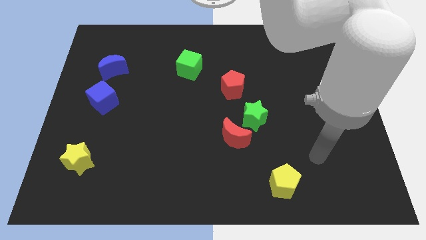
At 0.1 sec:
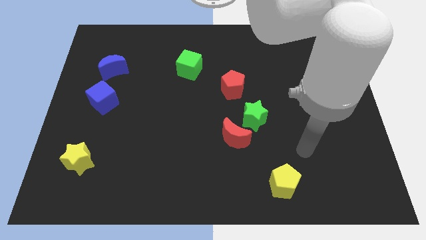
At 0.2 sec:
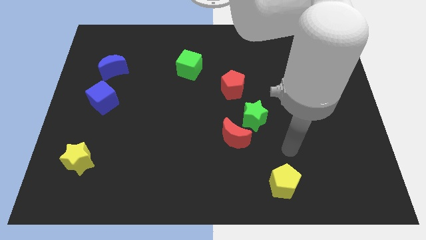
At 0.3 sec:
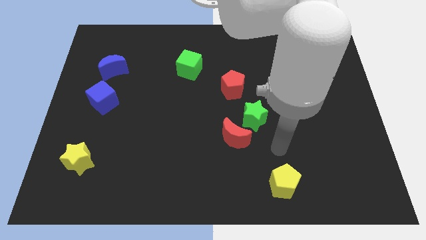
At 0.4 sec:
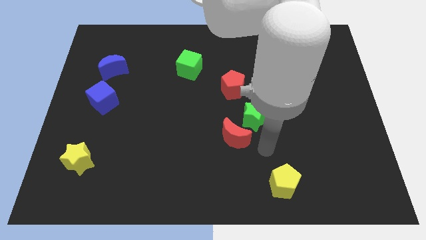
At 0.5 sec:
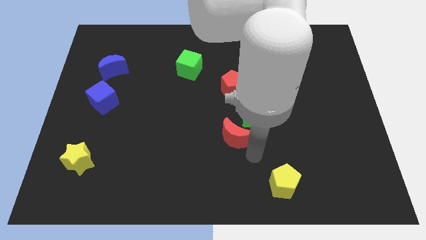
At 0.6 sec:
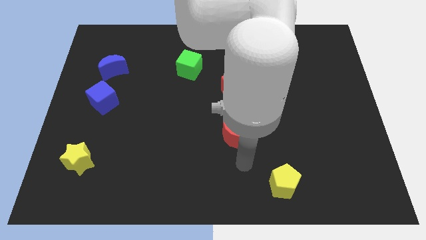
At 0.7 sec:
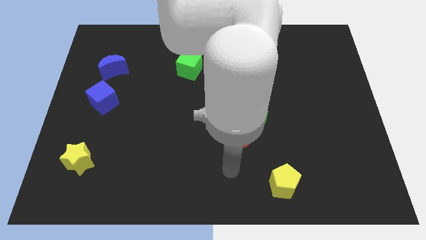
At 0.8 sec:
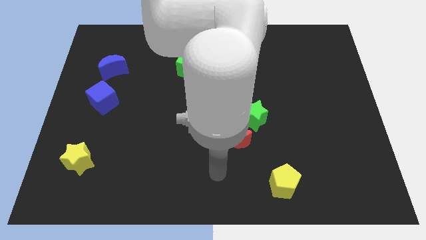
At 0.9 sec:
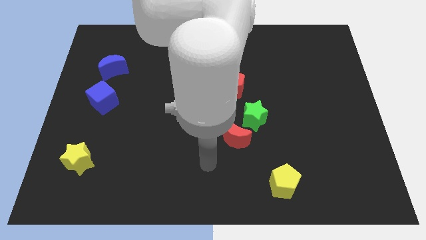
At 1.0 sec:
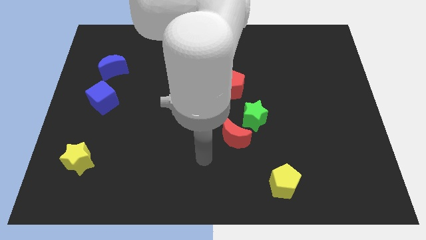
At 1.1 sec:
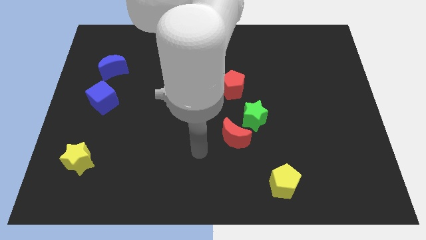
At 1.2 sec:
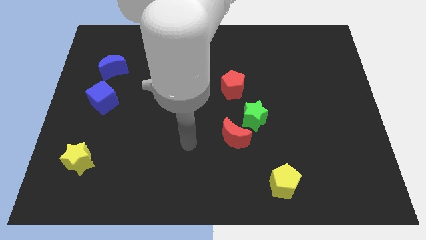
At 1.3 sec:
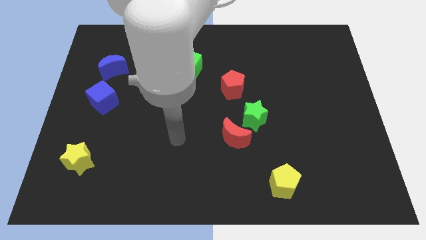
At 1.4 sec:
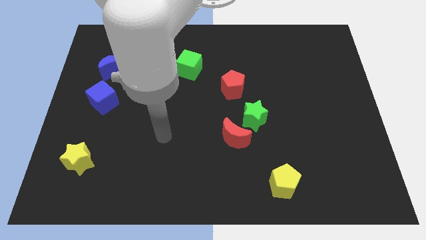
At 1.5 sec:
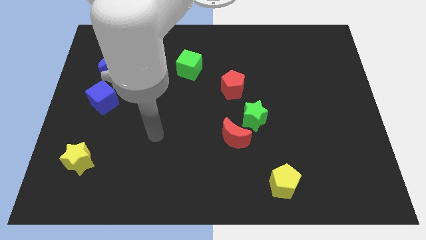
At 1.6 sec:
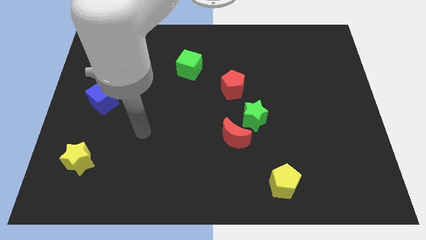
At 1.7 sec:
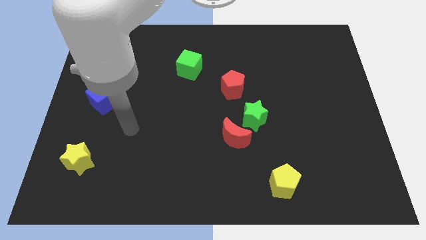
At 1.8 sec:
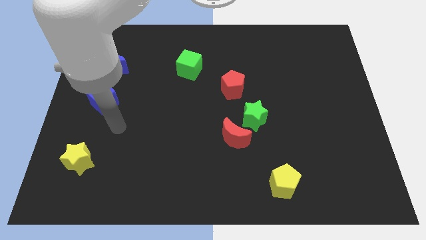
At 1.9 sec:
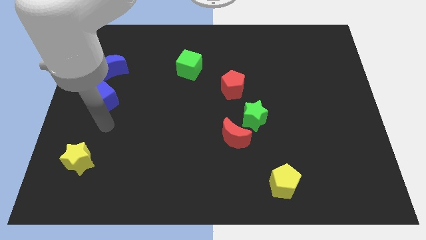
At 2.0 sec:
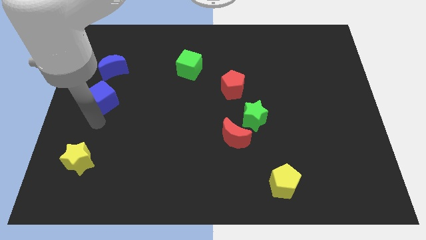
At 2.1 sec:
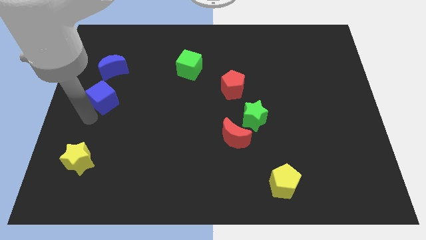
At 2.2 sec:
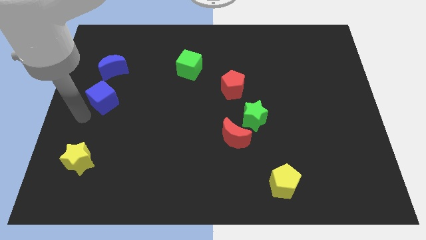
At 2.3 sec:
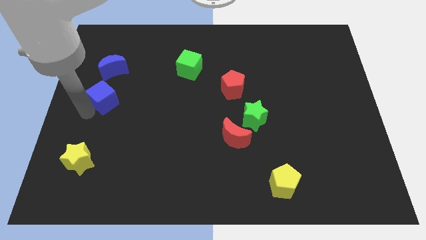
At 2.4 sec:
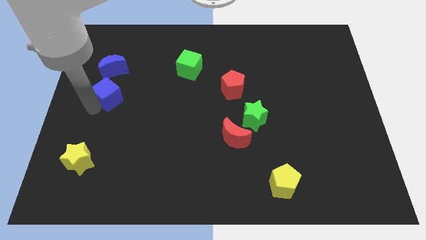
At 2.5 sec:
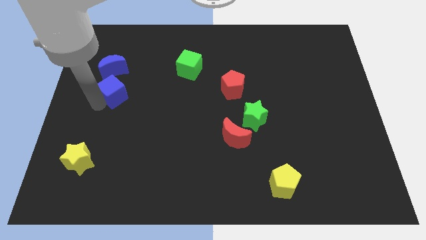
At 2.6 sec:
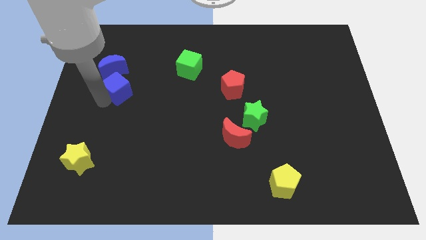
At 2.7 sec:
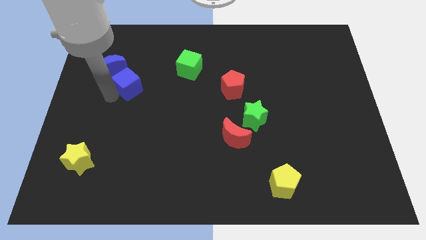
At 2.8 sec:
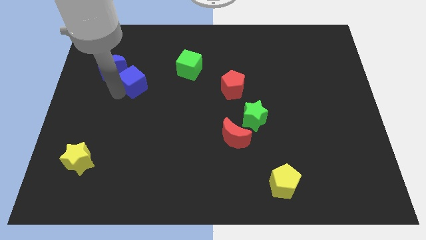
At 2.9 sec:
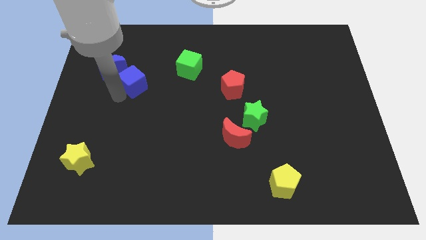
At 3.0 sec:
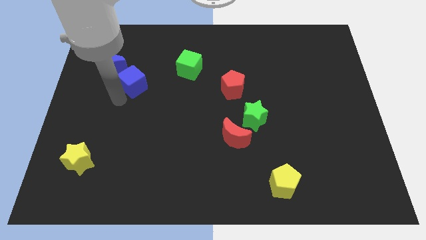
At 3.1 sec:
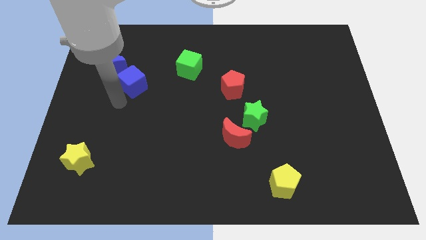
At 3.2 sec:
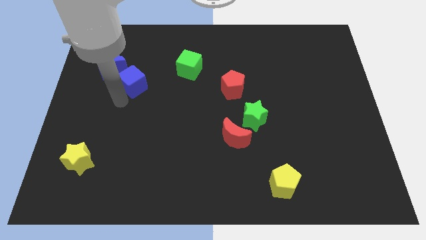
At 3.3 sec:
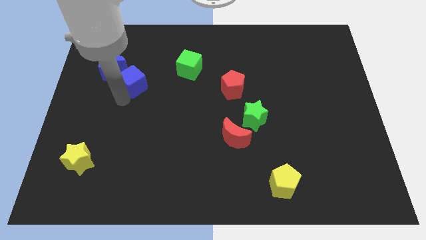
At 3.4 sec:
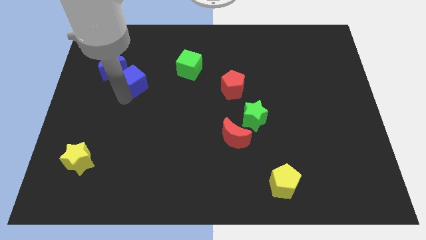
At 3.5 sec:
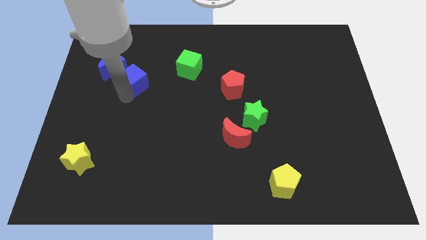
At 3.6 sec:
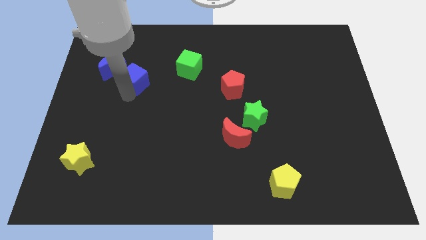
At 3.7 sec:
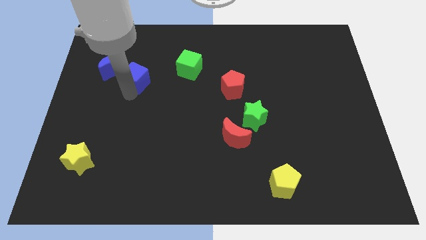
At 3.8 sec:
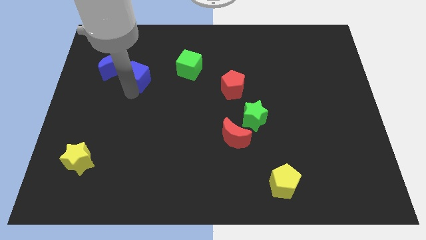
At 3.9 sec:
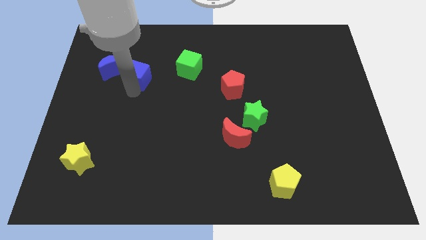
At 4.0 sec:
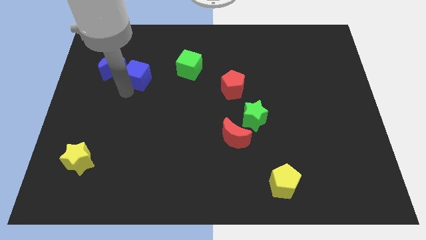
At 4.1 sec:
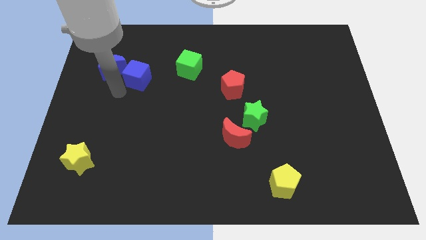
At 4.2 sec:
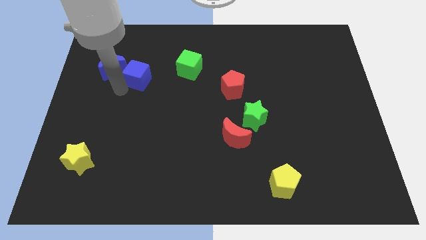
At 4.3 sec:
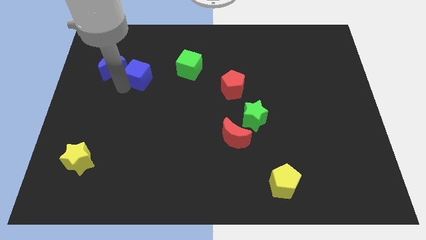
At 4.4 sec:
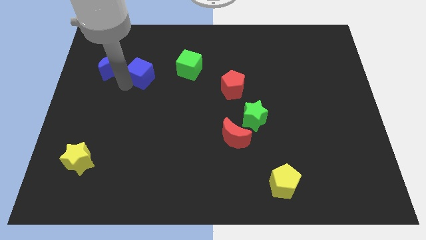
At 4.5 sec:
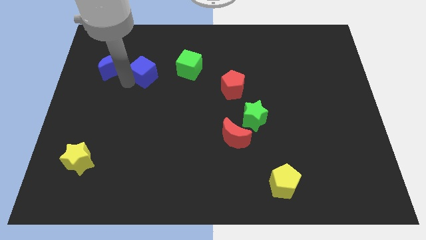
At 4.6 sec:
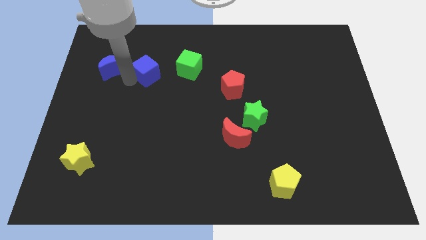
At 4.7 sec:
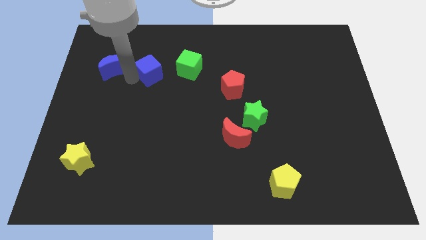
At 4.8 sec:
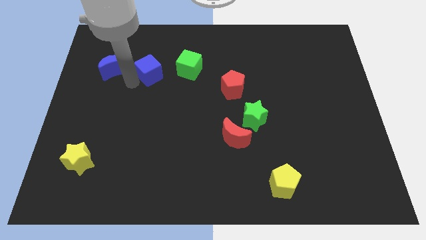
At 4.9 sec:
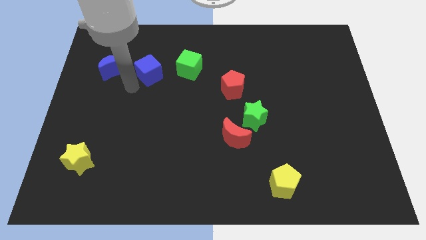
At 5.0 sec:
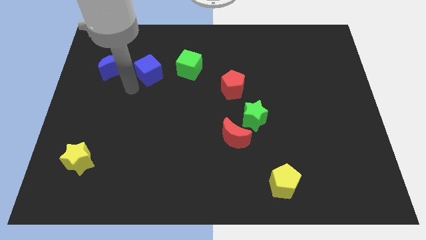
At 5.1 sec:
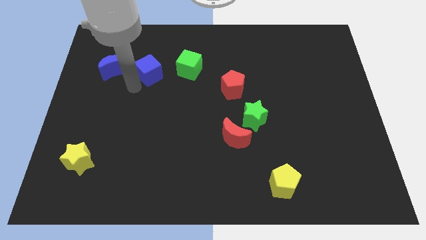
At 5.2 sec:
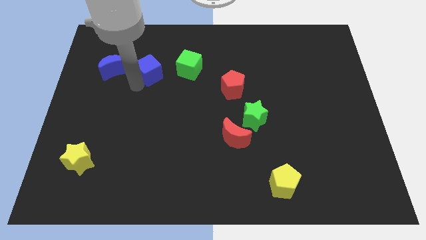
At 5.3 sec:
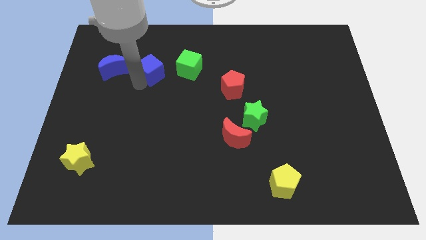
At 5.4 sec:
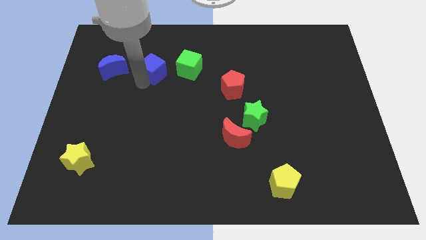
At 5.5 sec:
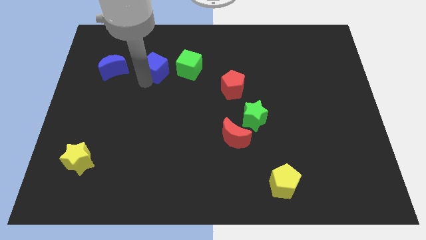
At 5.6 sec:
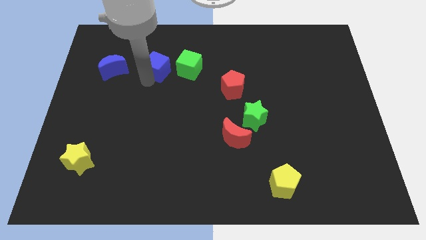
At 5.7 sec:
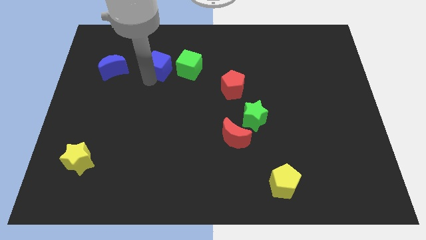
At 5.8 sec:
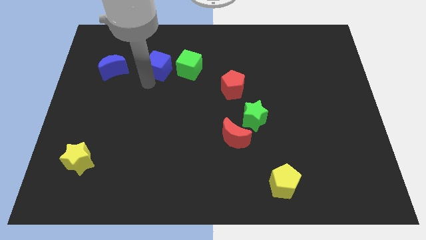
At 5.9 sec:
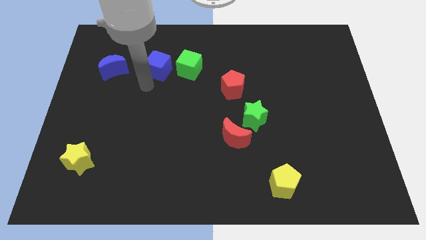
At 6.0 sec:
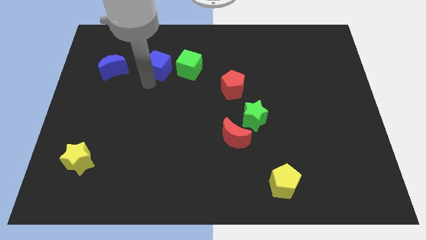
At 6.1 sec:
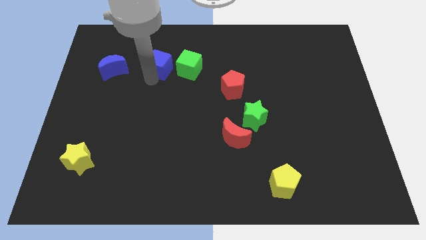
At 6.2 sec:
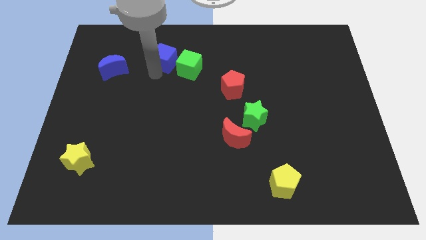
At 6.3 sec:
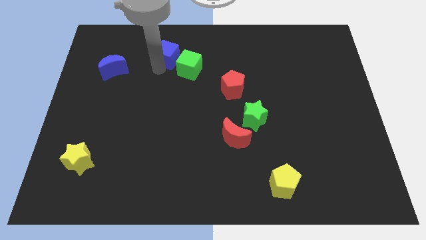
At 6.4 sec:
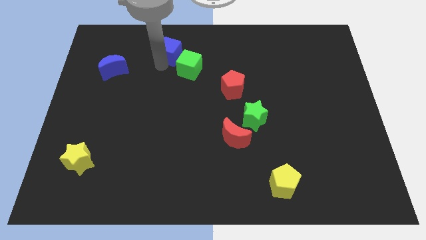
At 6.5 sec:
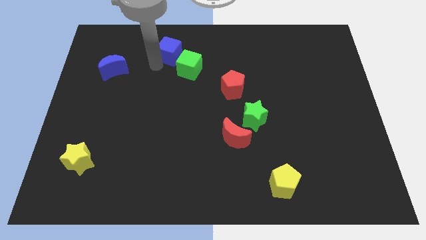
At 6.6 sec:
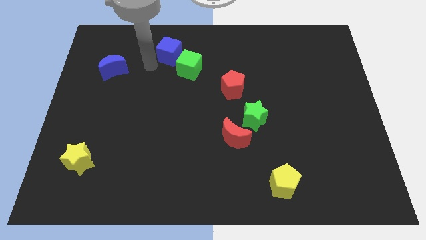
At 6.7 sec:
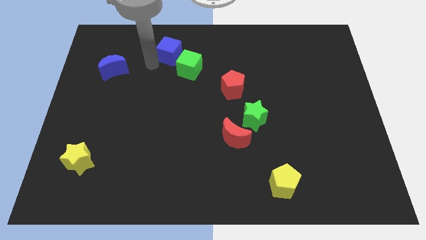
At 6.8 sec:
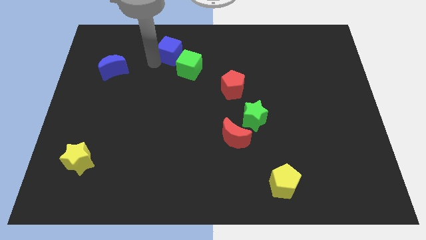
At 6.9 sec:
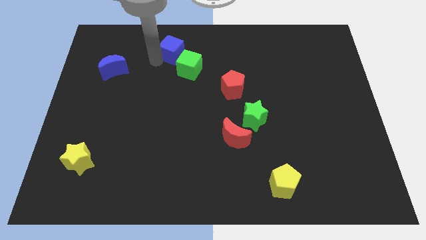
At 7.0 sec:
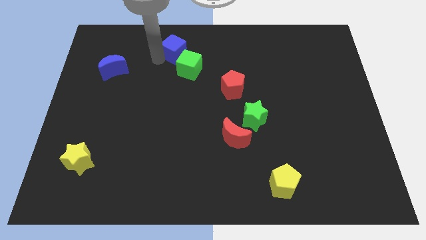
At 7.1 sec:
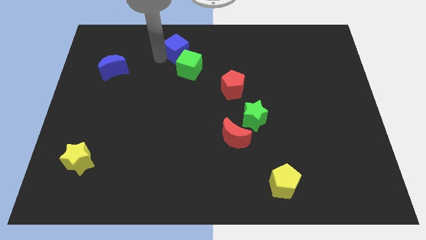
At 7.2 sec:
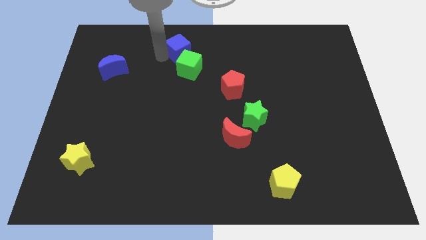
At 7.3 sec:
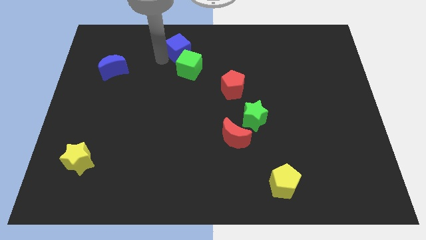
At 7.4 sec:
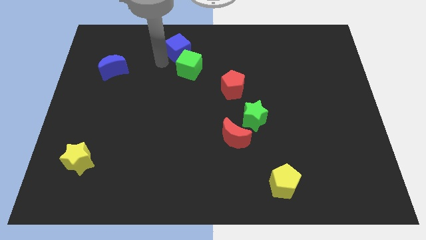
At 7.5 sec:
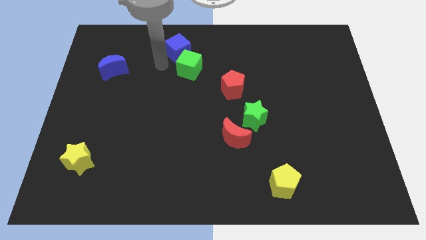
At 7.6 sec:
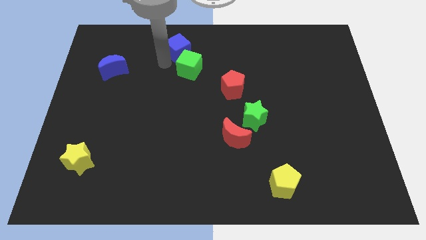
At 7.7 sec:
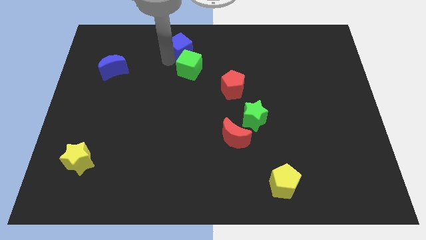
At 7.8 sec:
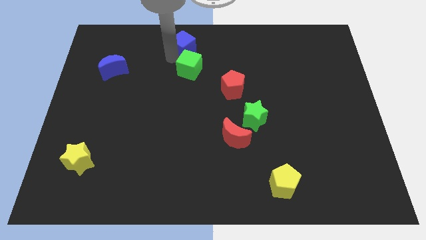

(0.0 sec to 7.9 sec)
move the blue cube to the towards your base
